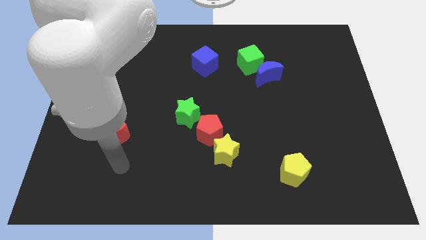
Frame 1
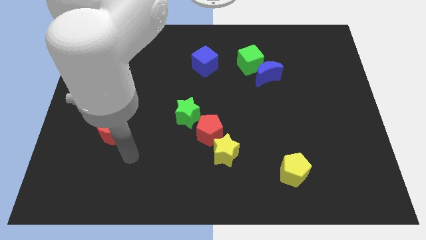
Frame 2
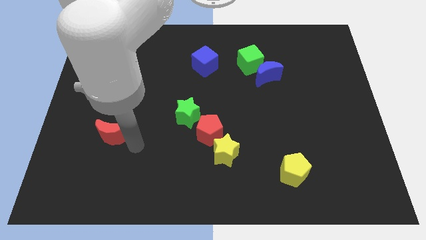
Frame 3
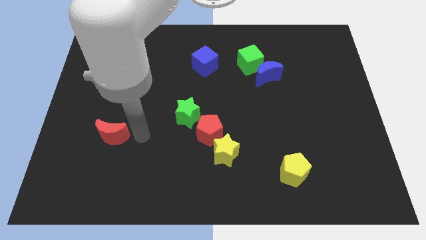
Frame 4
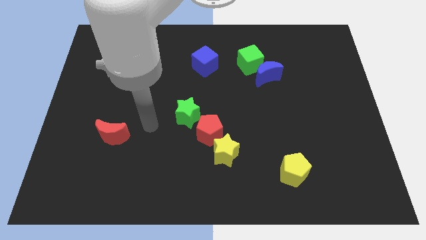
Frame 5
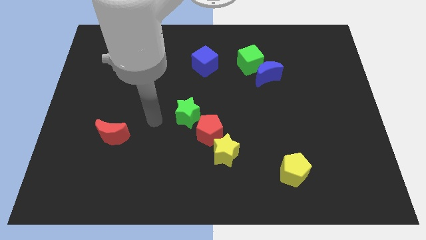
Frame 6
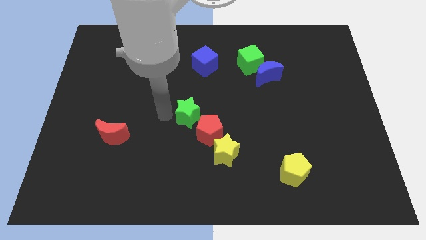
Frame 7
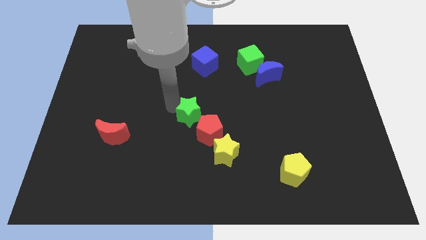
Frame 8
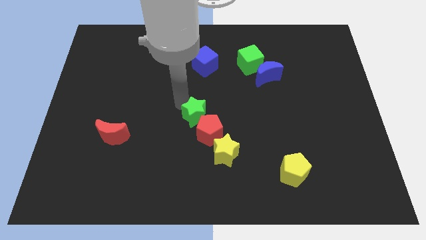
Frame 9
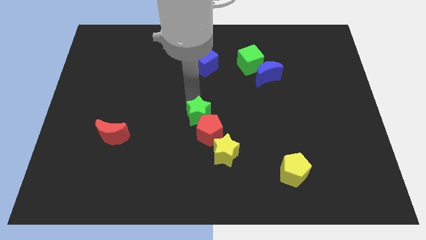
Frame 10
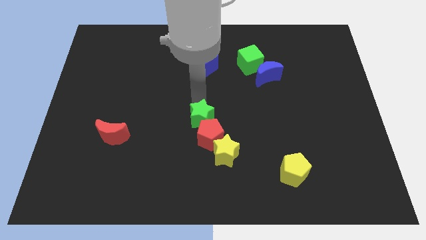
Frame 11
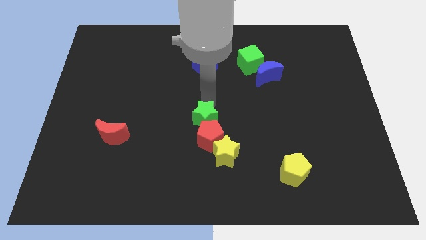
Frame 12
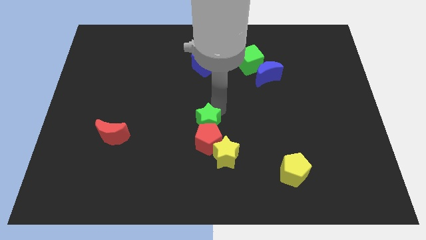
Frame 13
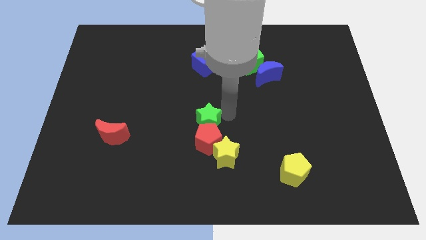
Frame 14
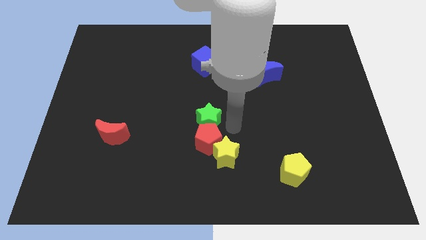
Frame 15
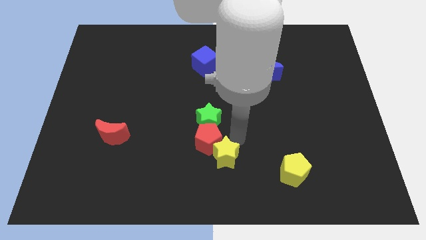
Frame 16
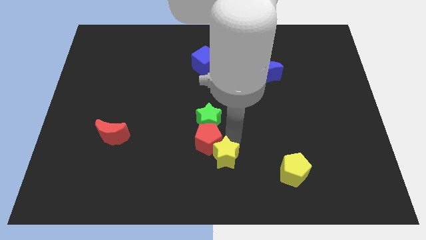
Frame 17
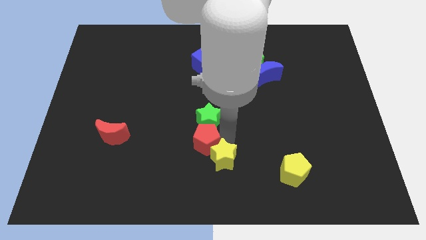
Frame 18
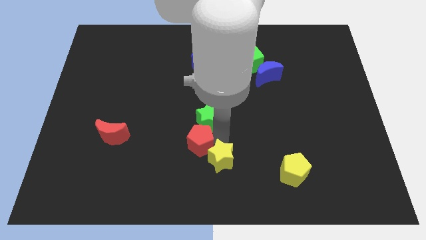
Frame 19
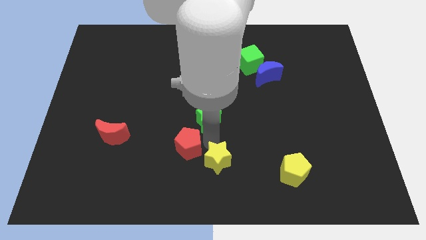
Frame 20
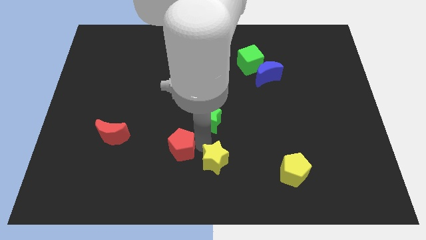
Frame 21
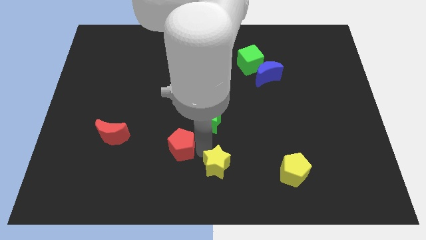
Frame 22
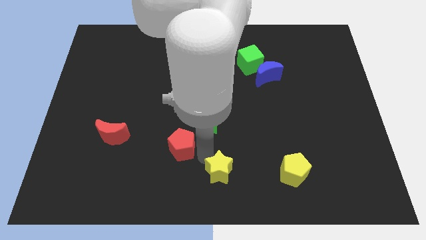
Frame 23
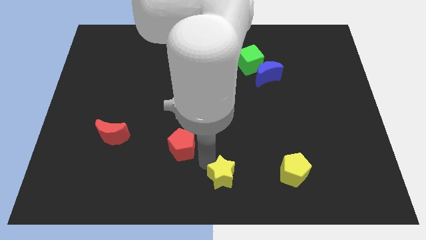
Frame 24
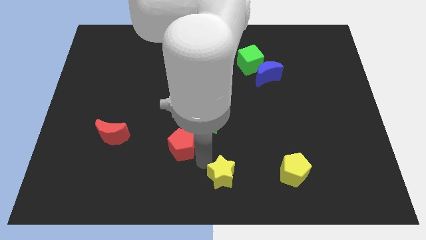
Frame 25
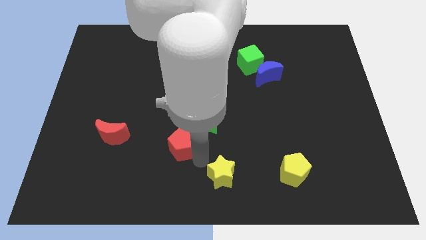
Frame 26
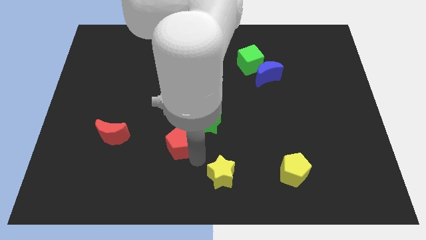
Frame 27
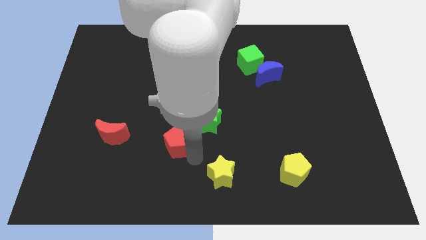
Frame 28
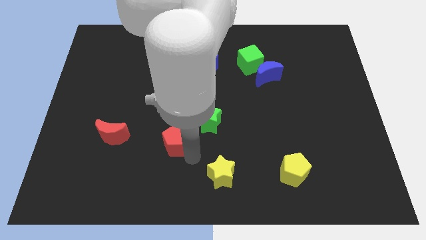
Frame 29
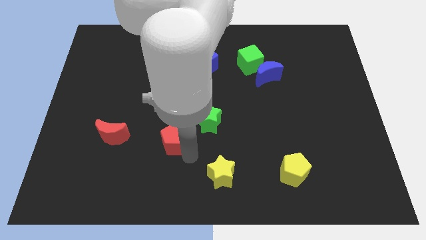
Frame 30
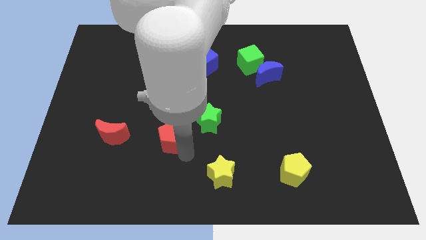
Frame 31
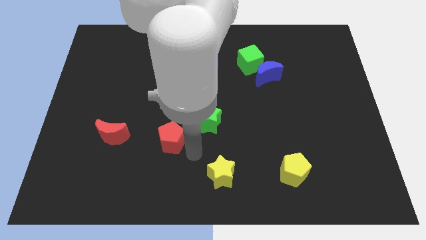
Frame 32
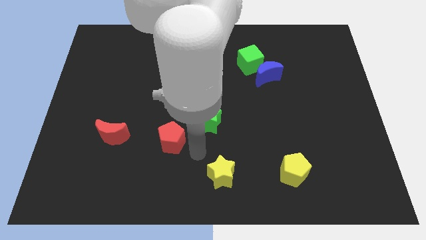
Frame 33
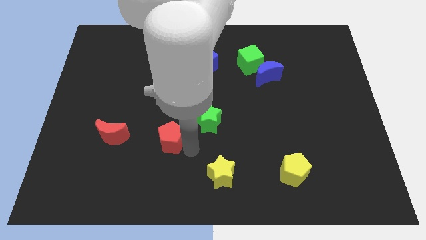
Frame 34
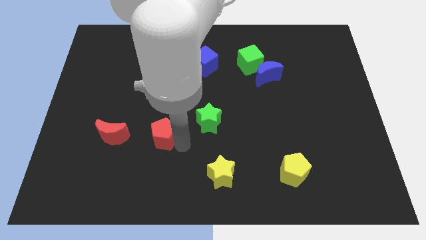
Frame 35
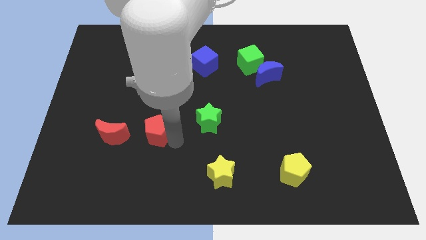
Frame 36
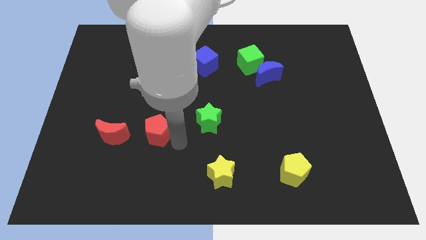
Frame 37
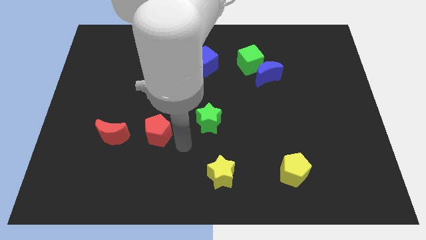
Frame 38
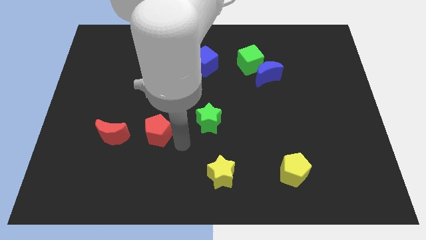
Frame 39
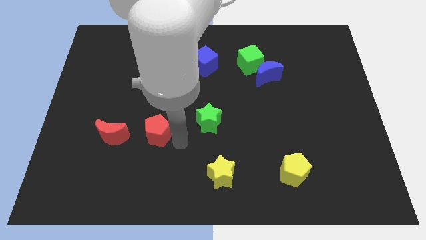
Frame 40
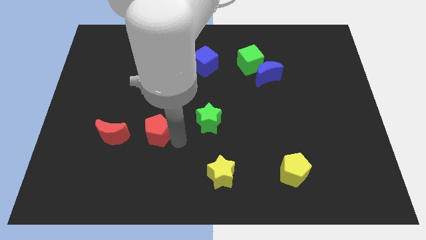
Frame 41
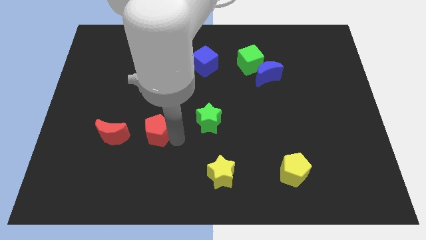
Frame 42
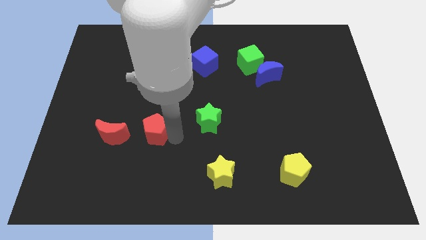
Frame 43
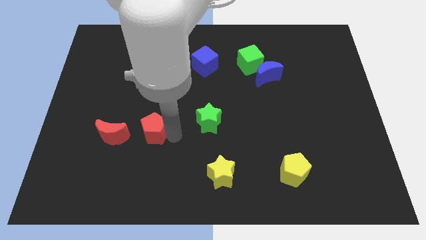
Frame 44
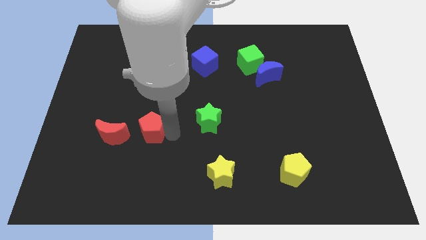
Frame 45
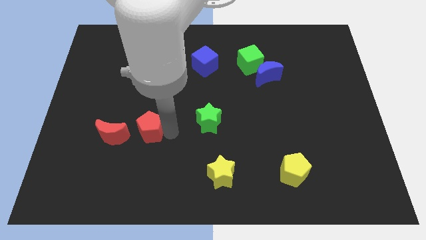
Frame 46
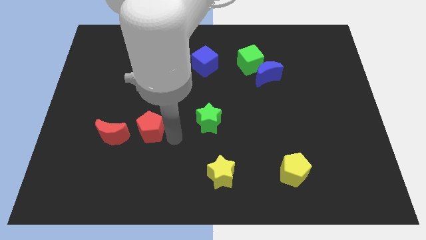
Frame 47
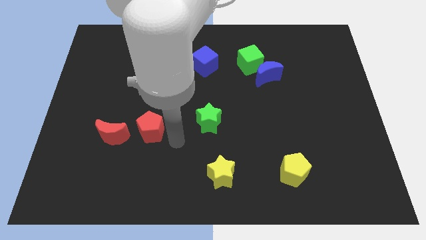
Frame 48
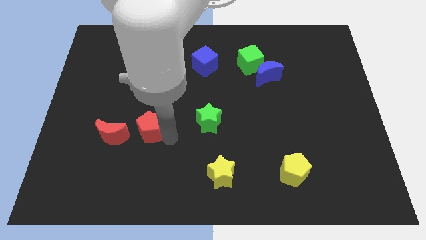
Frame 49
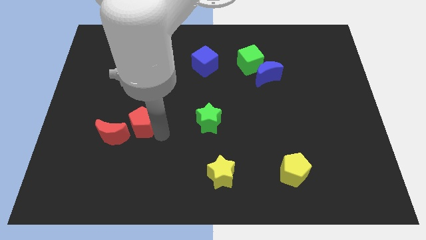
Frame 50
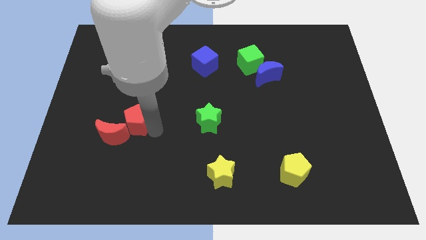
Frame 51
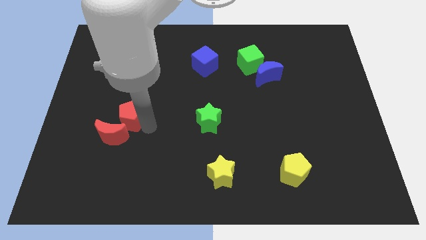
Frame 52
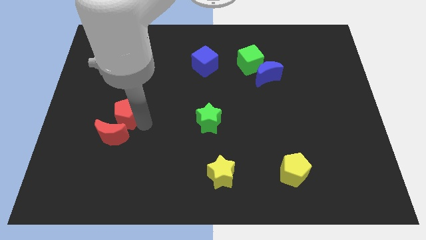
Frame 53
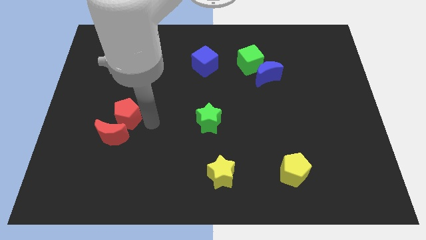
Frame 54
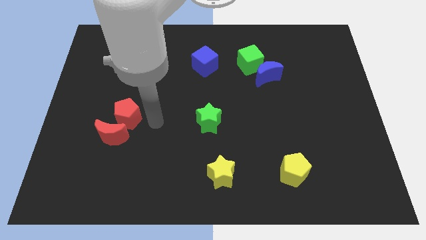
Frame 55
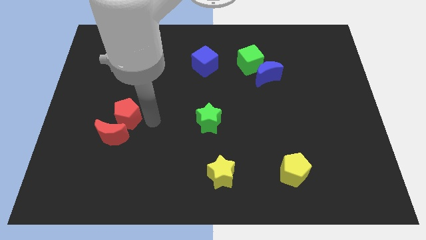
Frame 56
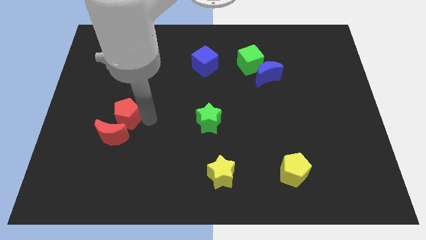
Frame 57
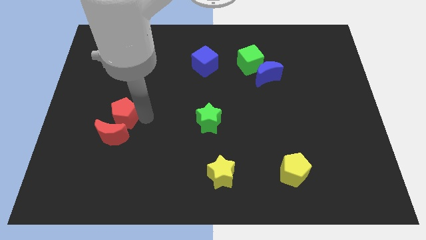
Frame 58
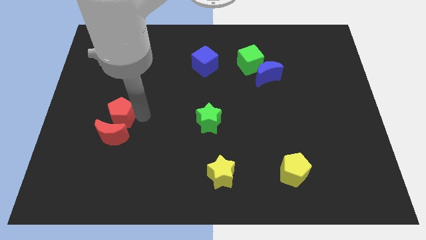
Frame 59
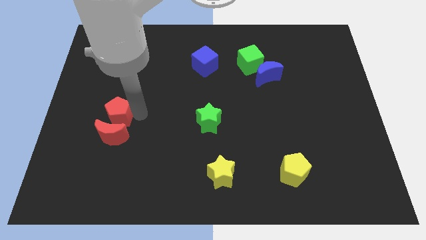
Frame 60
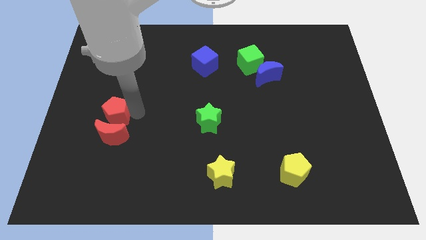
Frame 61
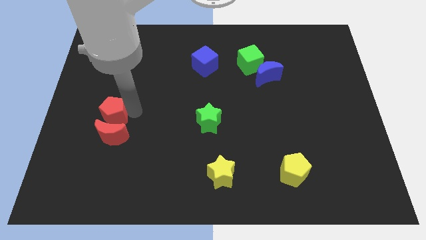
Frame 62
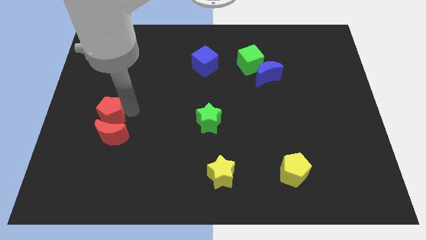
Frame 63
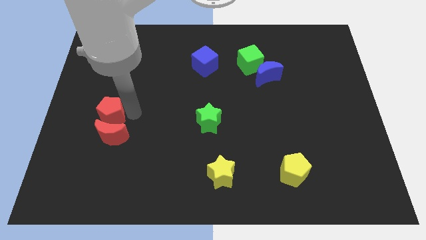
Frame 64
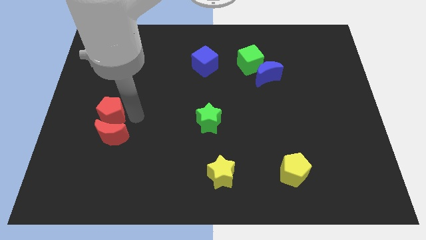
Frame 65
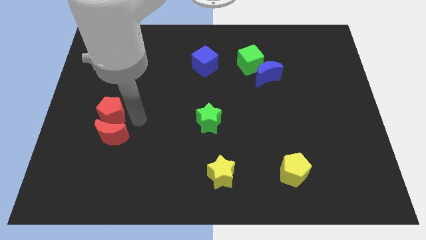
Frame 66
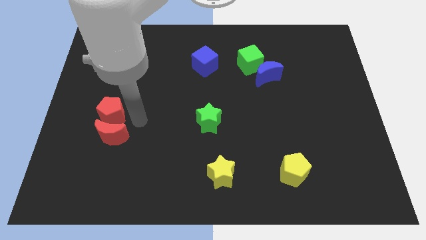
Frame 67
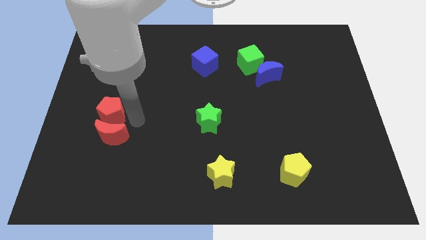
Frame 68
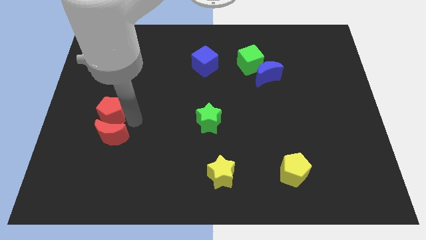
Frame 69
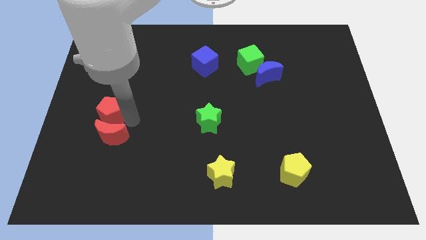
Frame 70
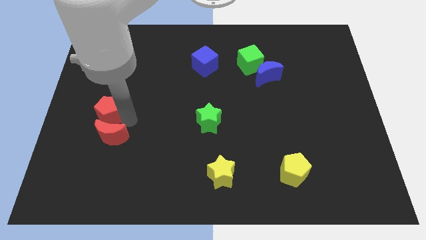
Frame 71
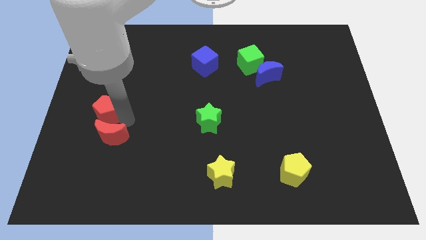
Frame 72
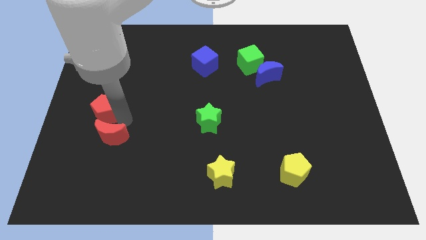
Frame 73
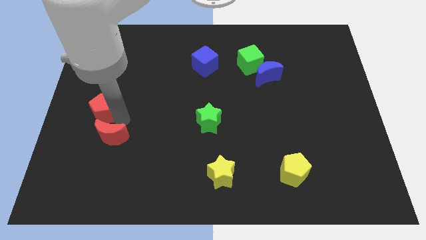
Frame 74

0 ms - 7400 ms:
move the red pentagon to the center left
